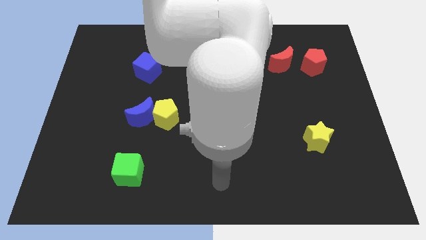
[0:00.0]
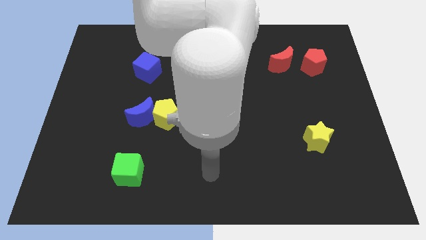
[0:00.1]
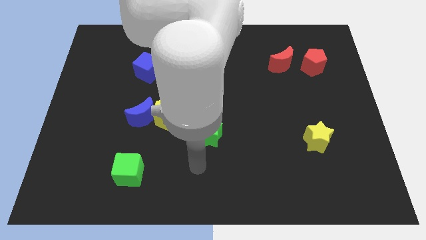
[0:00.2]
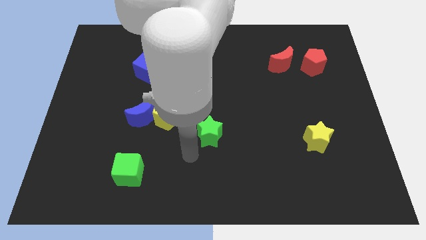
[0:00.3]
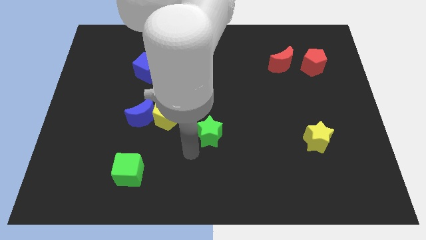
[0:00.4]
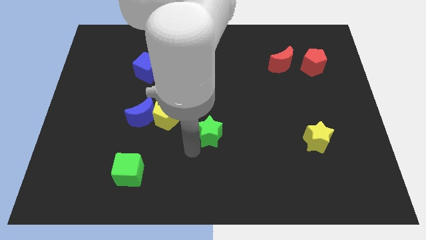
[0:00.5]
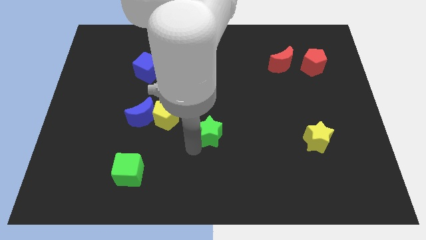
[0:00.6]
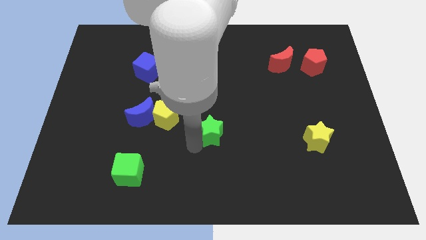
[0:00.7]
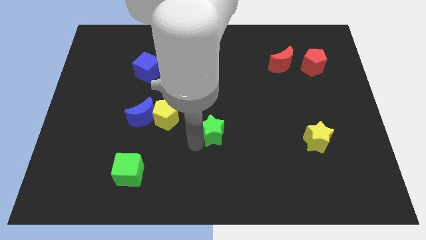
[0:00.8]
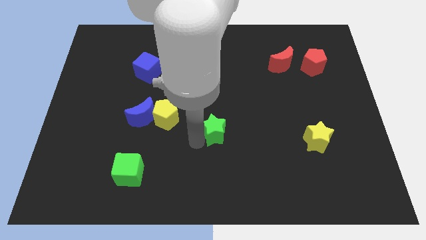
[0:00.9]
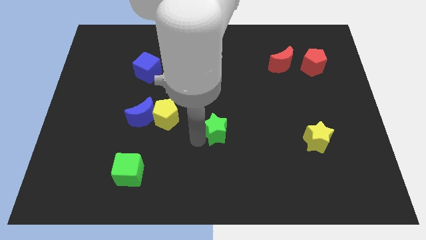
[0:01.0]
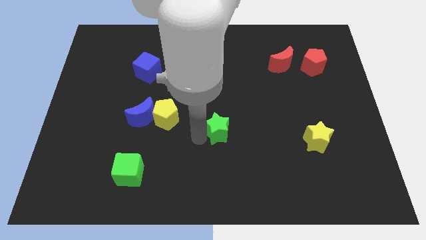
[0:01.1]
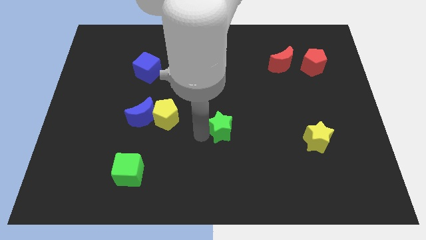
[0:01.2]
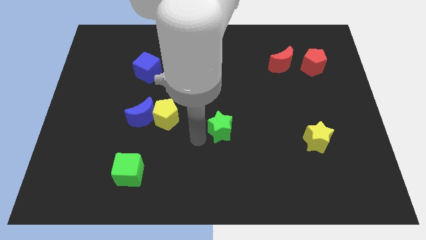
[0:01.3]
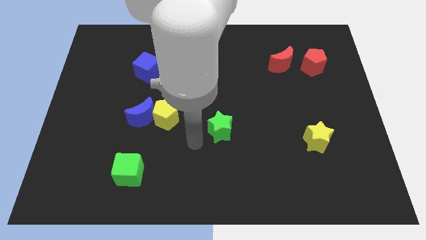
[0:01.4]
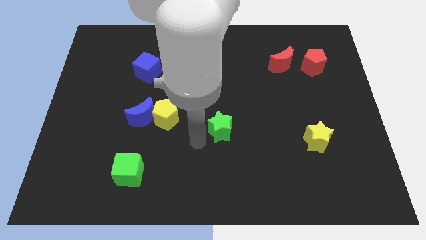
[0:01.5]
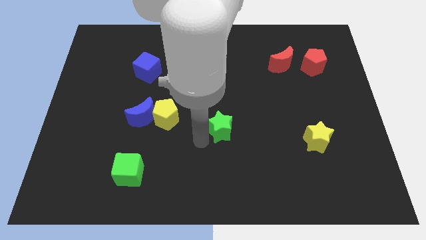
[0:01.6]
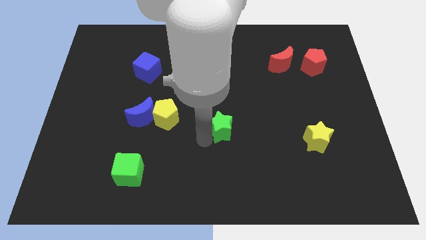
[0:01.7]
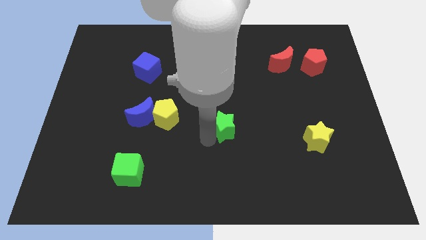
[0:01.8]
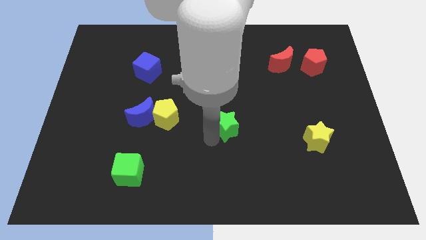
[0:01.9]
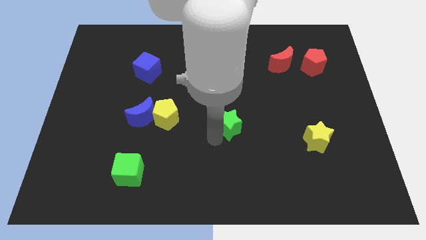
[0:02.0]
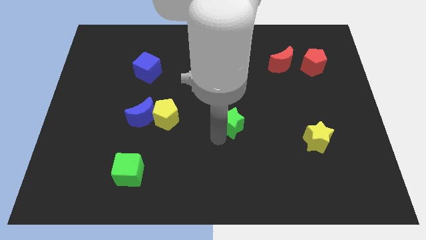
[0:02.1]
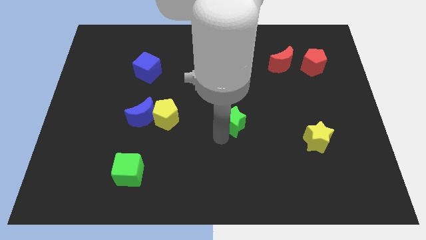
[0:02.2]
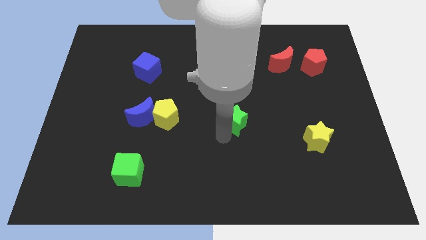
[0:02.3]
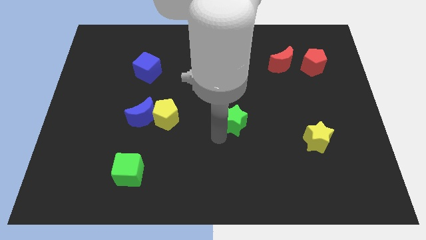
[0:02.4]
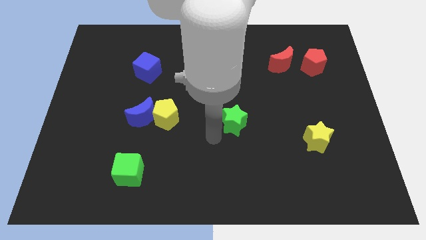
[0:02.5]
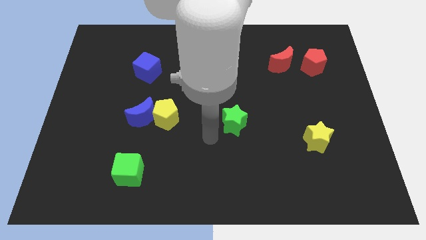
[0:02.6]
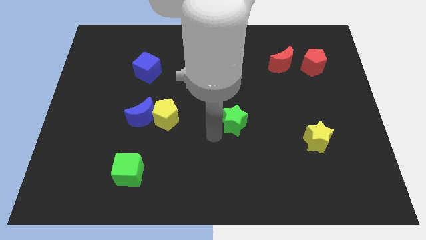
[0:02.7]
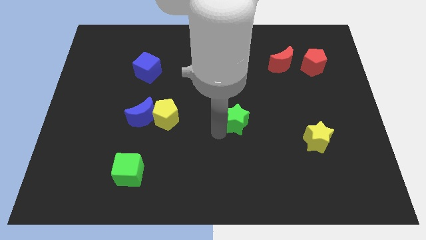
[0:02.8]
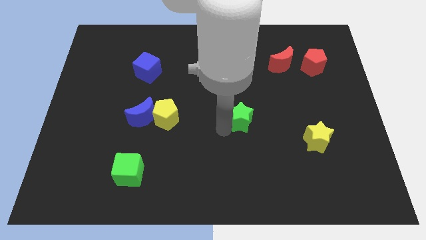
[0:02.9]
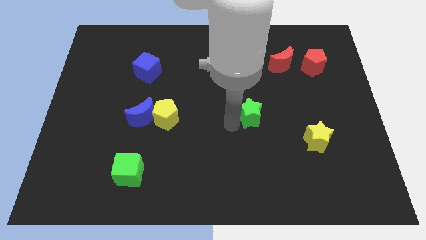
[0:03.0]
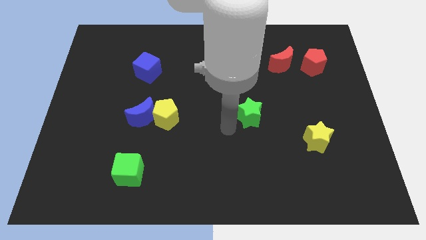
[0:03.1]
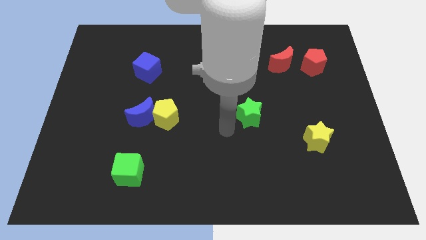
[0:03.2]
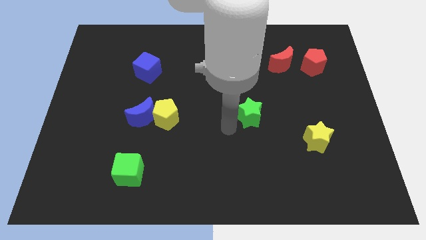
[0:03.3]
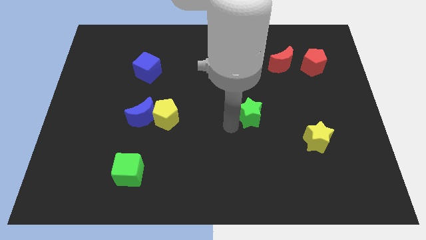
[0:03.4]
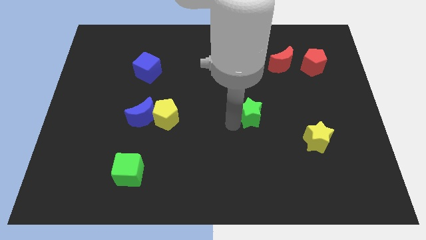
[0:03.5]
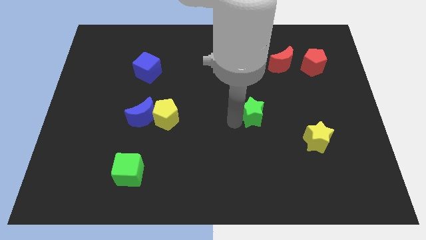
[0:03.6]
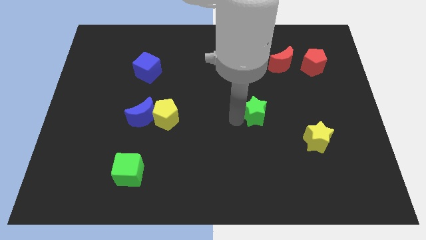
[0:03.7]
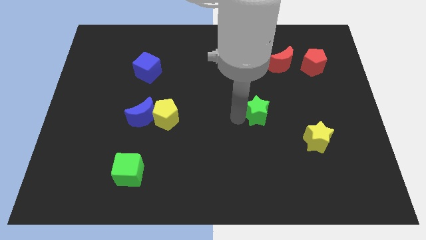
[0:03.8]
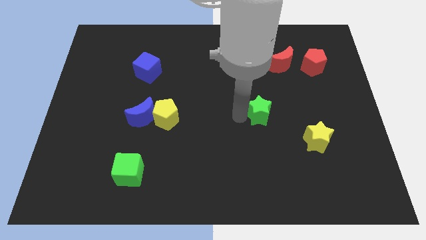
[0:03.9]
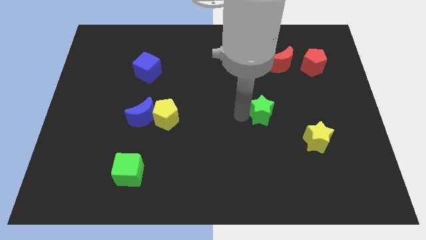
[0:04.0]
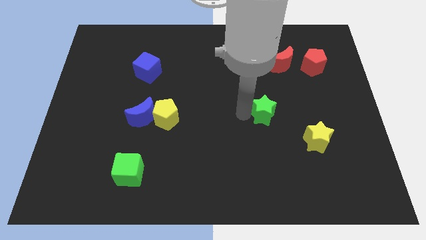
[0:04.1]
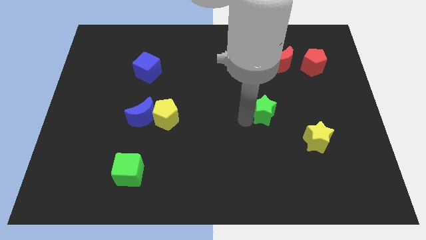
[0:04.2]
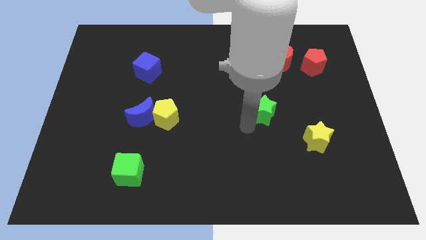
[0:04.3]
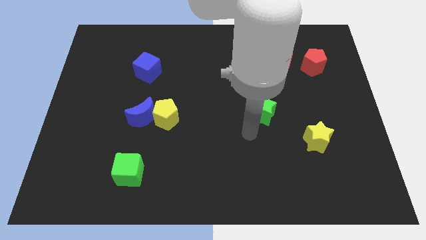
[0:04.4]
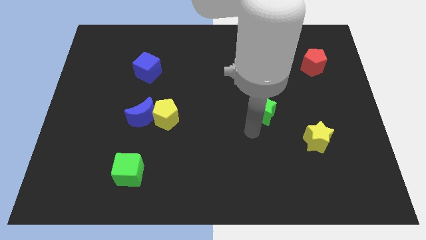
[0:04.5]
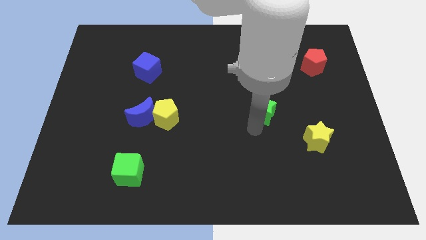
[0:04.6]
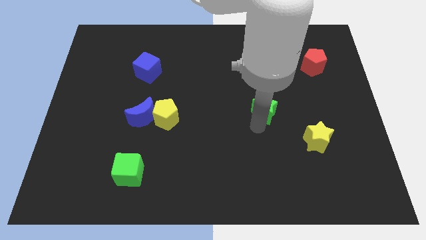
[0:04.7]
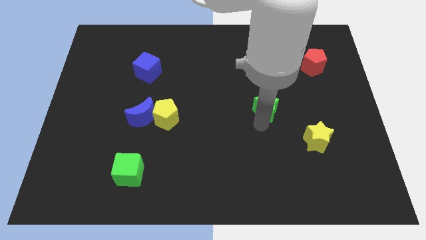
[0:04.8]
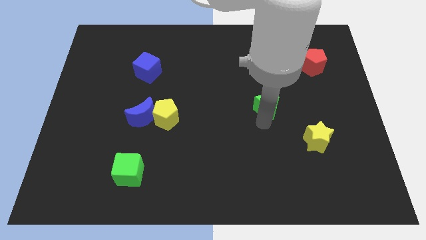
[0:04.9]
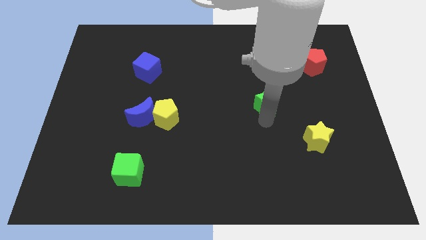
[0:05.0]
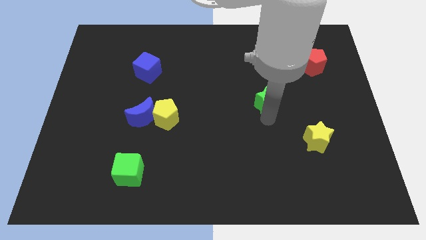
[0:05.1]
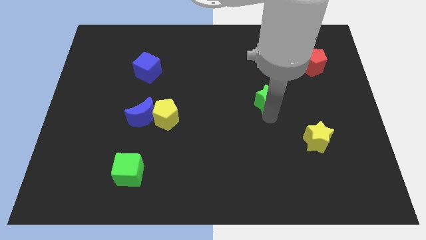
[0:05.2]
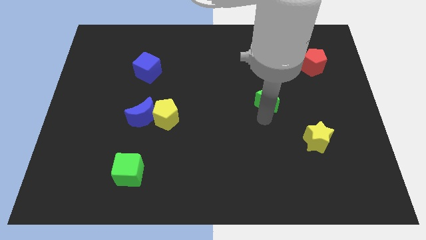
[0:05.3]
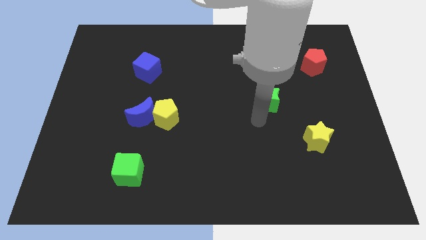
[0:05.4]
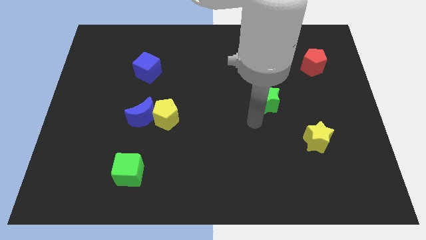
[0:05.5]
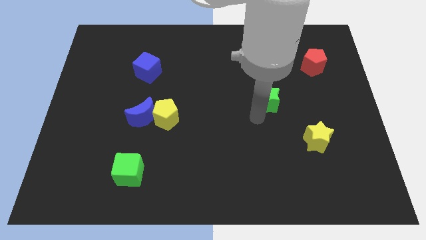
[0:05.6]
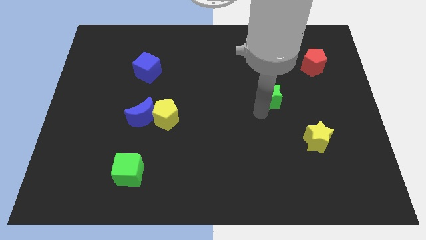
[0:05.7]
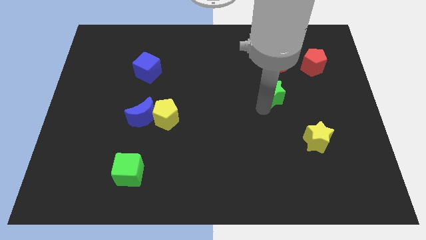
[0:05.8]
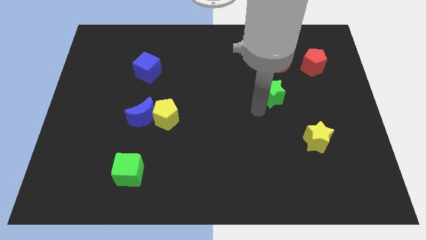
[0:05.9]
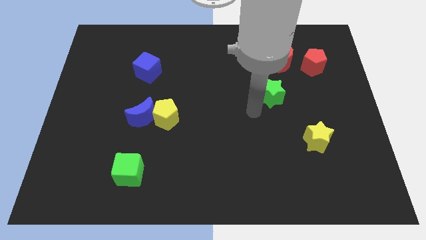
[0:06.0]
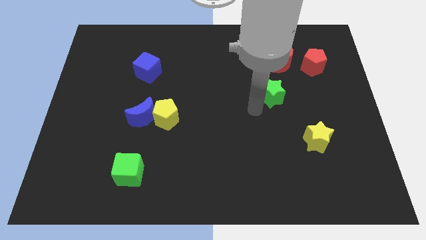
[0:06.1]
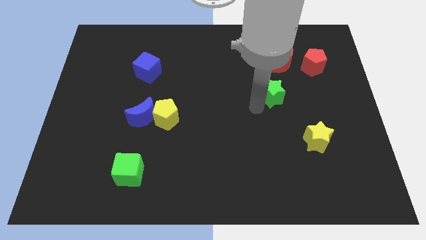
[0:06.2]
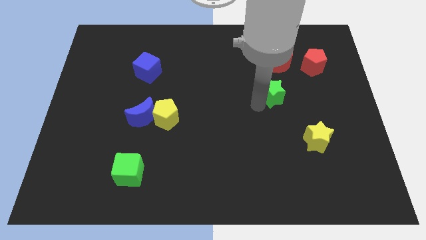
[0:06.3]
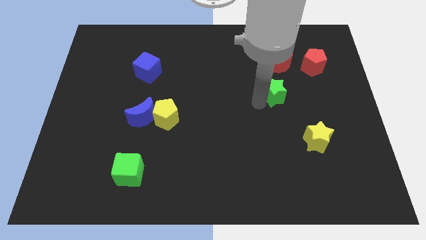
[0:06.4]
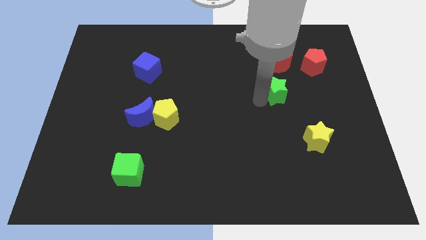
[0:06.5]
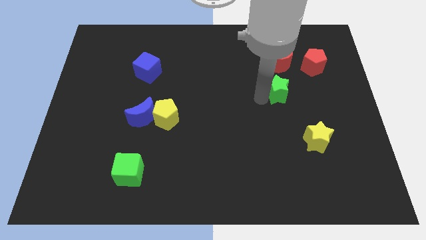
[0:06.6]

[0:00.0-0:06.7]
push the green star upwards and then to the right

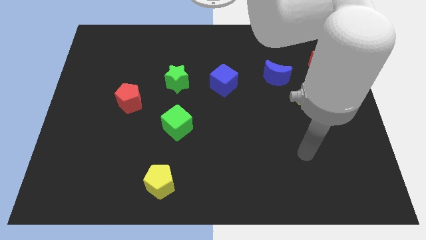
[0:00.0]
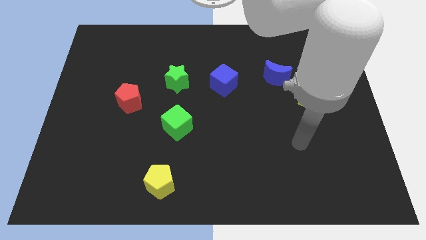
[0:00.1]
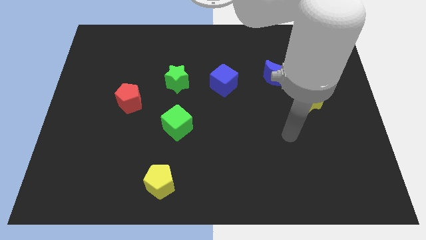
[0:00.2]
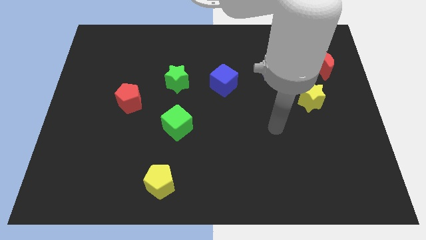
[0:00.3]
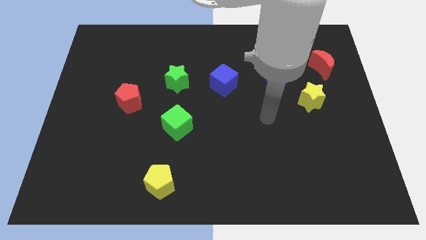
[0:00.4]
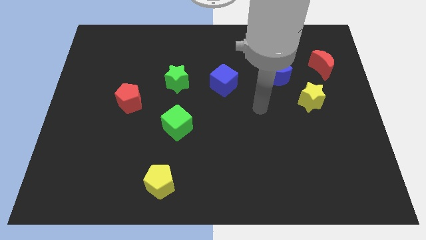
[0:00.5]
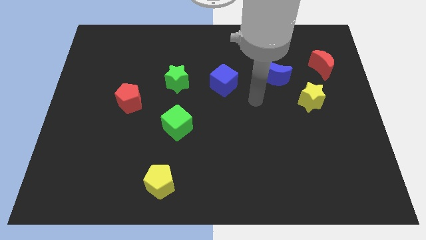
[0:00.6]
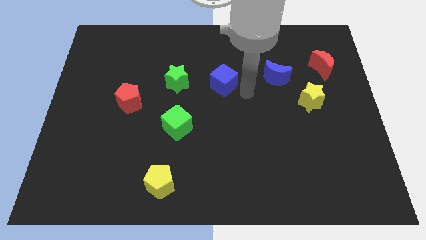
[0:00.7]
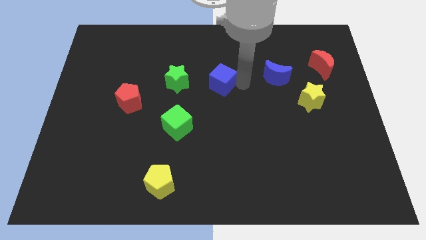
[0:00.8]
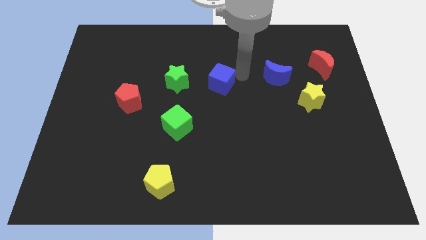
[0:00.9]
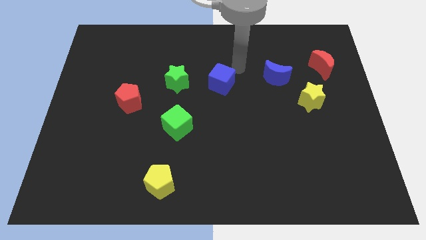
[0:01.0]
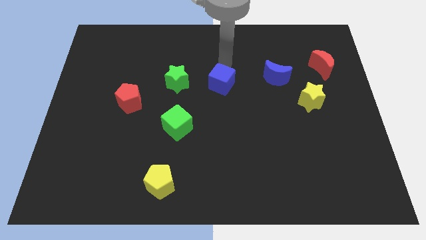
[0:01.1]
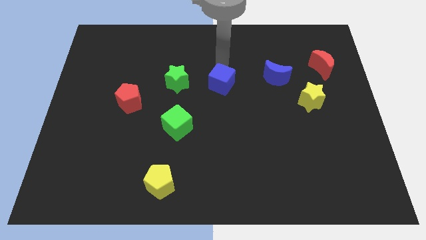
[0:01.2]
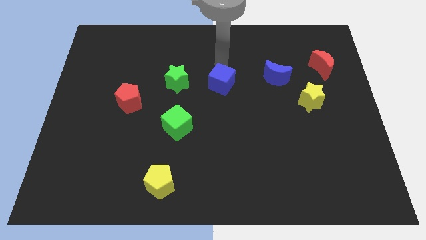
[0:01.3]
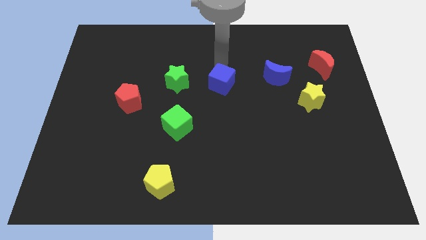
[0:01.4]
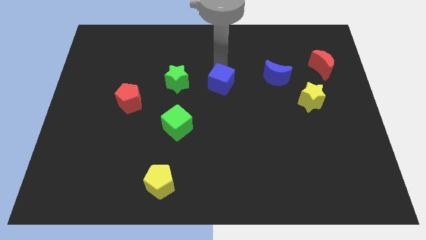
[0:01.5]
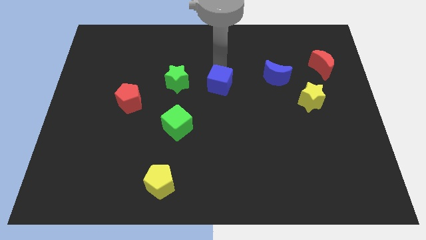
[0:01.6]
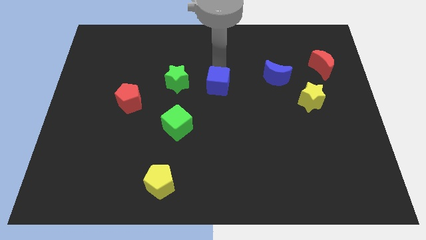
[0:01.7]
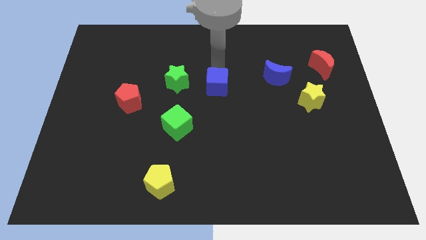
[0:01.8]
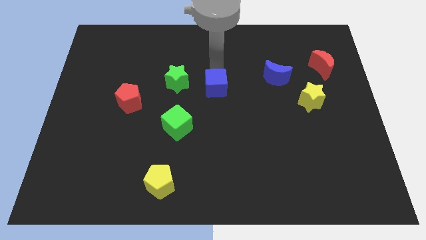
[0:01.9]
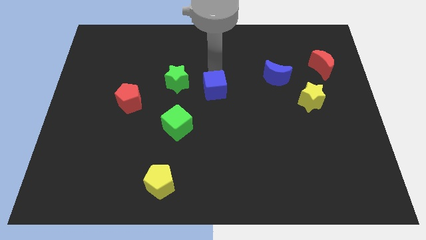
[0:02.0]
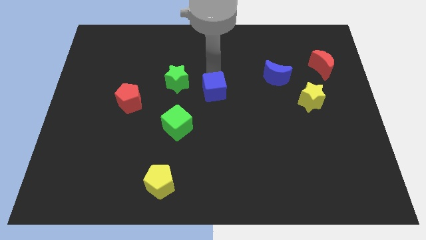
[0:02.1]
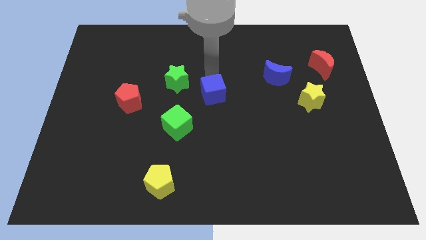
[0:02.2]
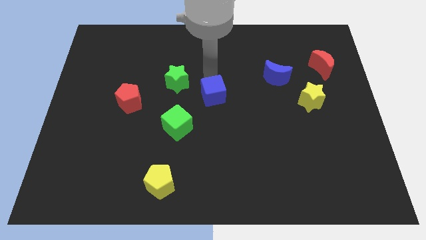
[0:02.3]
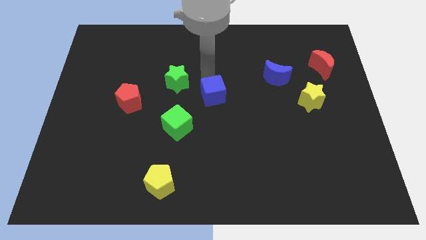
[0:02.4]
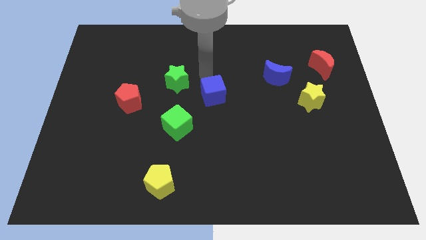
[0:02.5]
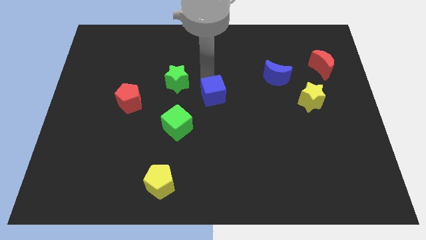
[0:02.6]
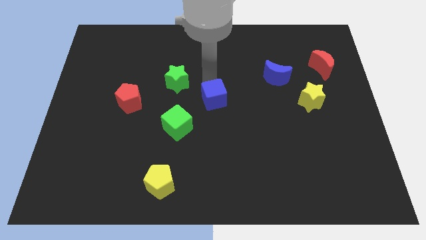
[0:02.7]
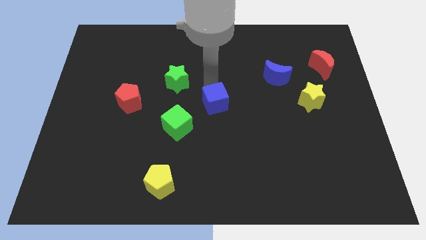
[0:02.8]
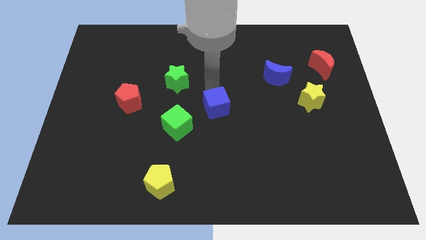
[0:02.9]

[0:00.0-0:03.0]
slightly slide the blue cube down
